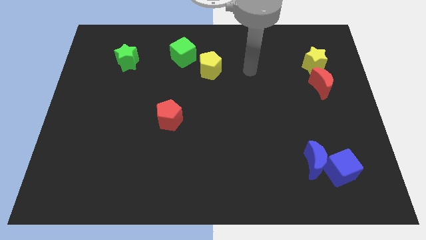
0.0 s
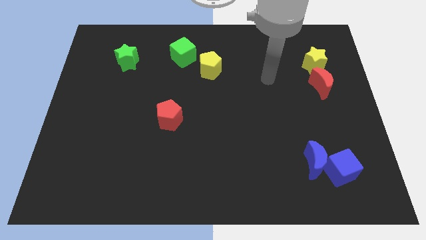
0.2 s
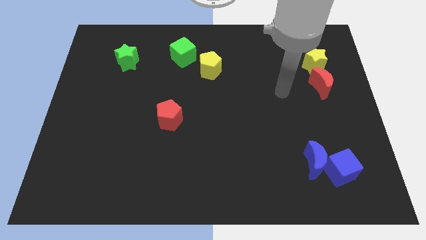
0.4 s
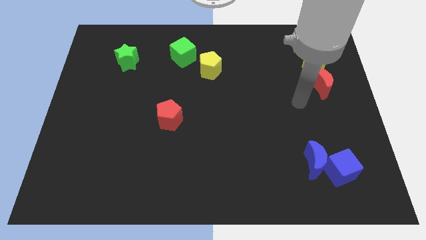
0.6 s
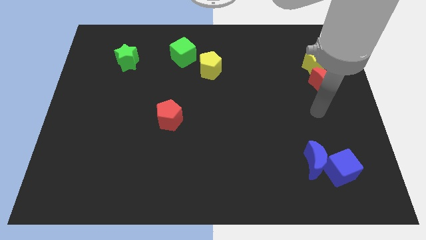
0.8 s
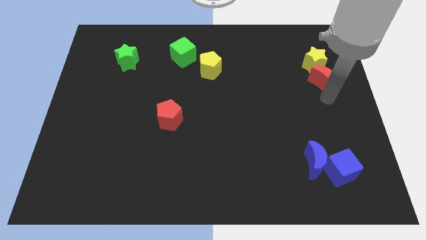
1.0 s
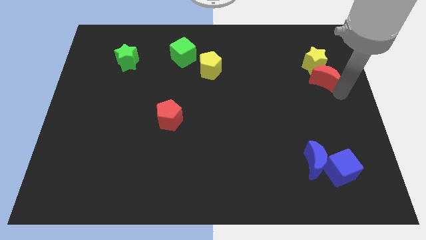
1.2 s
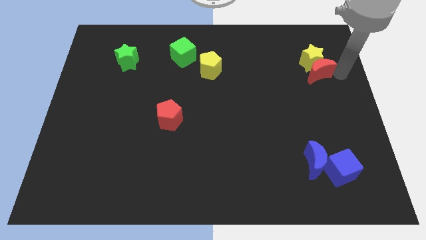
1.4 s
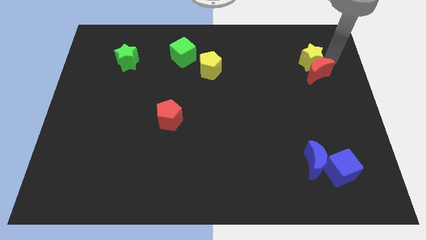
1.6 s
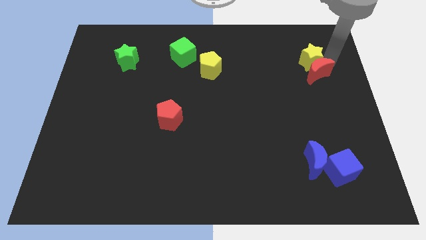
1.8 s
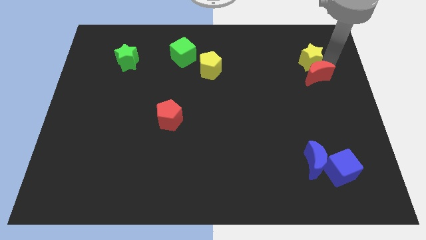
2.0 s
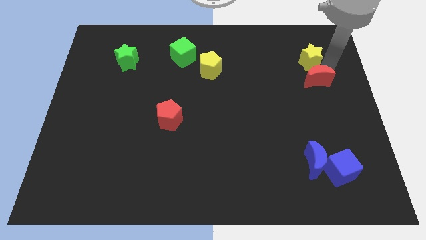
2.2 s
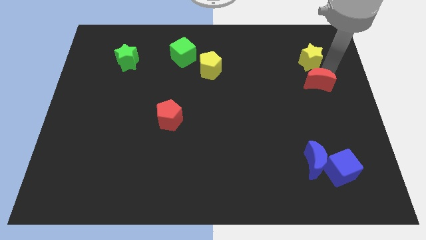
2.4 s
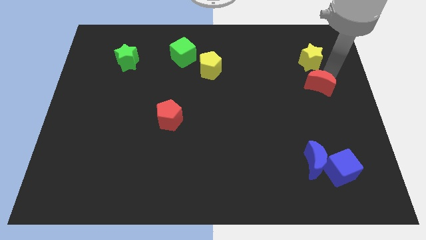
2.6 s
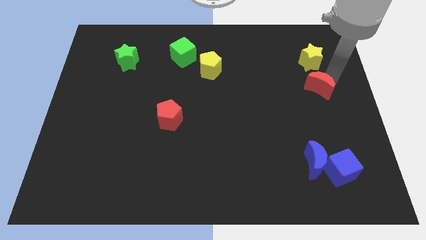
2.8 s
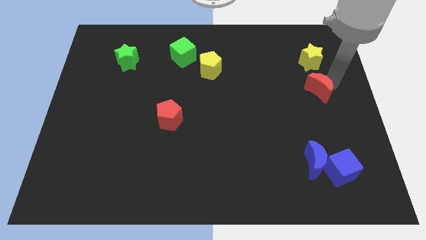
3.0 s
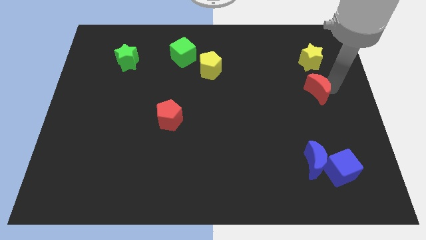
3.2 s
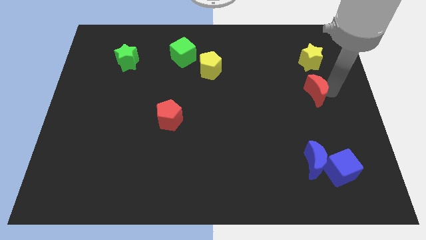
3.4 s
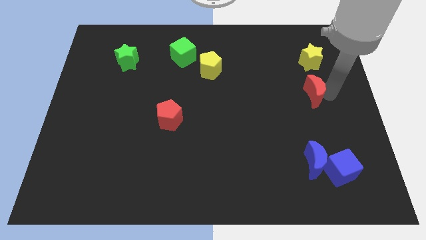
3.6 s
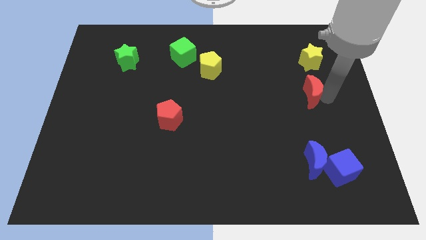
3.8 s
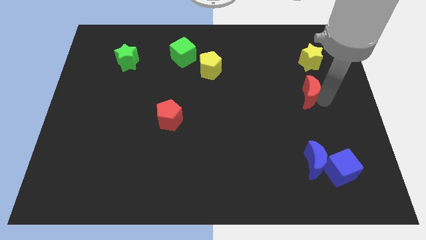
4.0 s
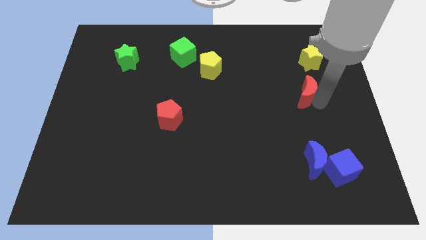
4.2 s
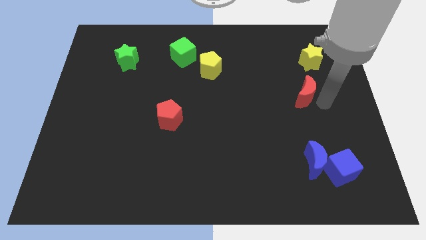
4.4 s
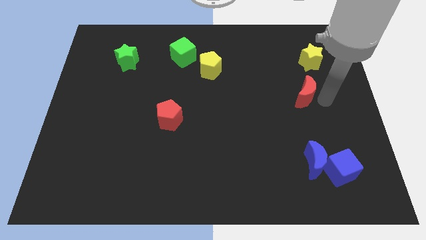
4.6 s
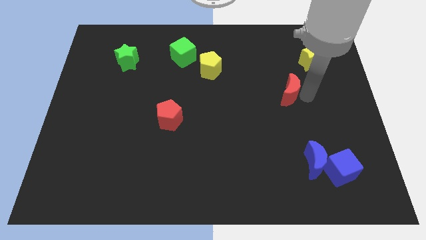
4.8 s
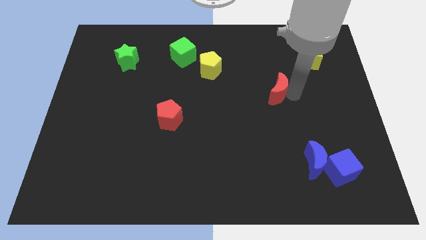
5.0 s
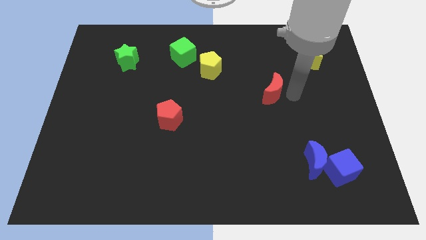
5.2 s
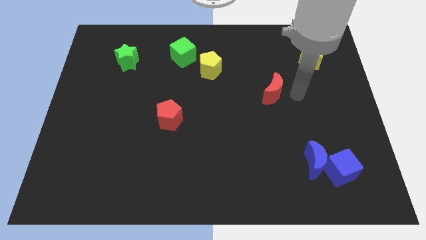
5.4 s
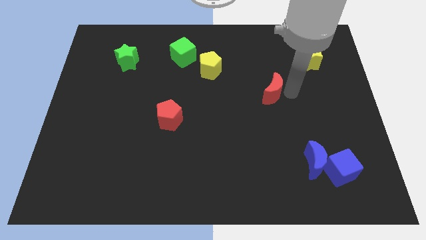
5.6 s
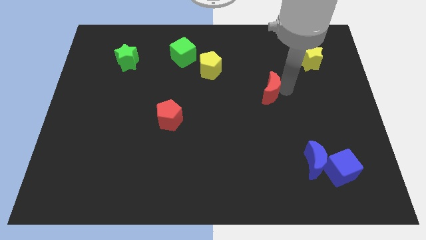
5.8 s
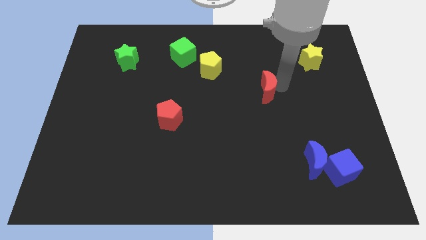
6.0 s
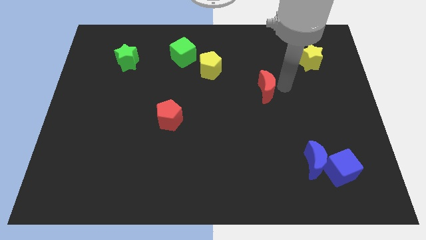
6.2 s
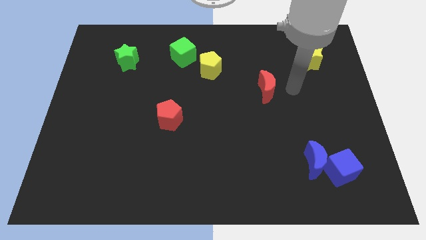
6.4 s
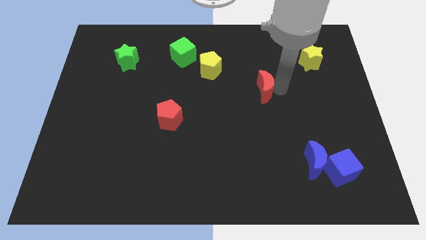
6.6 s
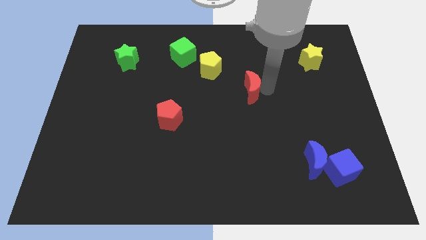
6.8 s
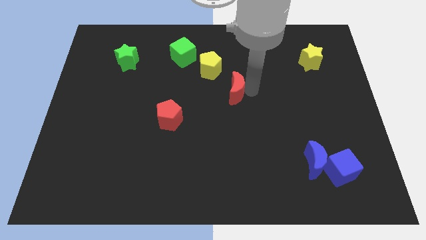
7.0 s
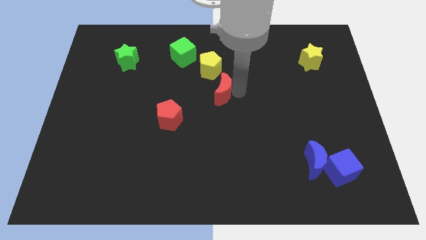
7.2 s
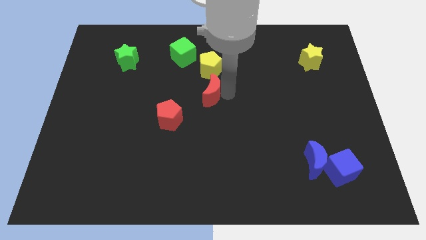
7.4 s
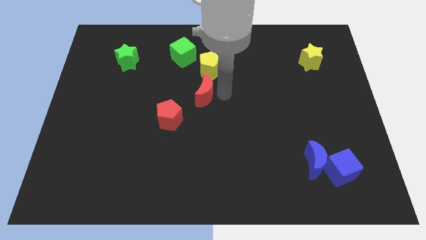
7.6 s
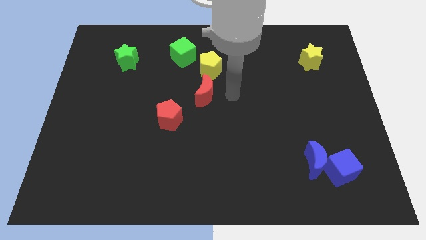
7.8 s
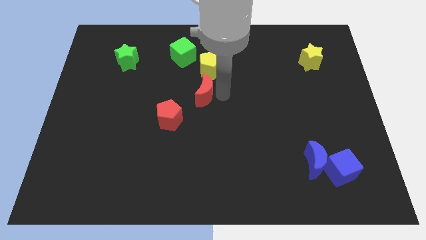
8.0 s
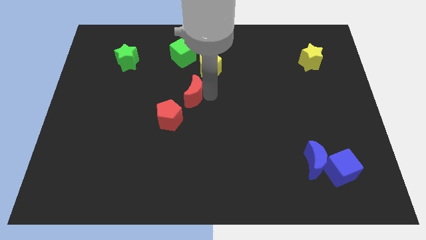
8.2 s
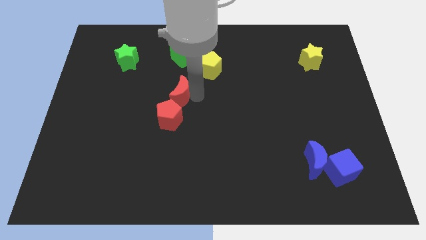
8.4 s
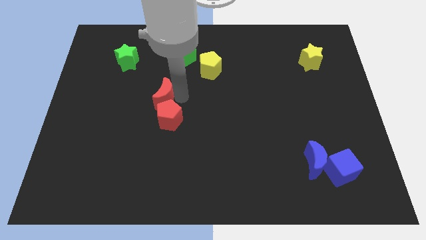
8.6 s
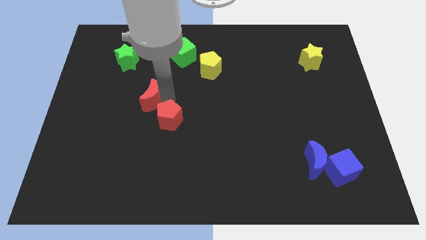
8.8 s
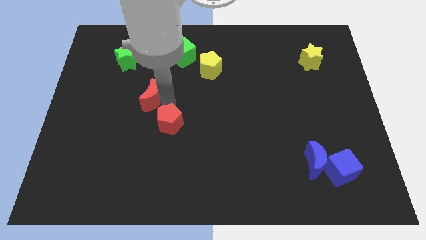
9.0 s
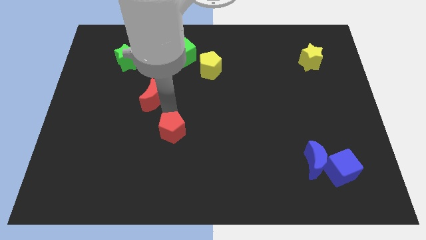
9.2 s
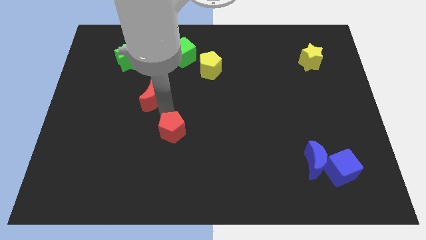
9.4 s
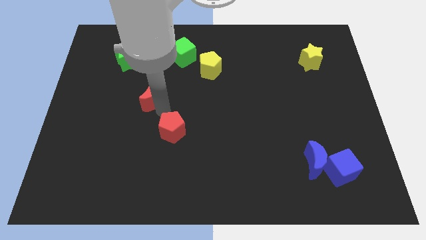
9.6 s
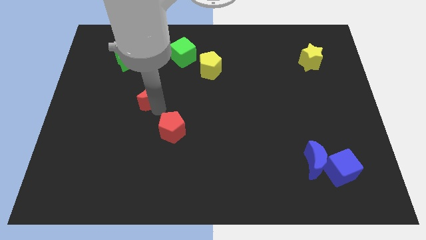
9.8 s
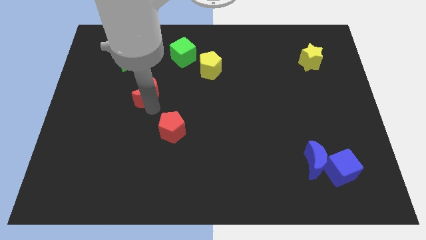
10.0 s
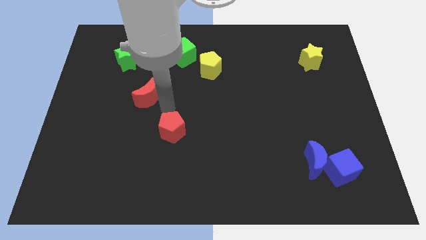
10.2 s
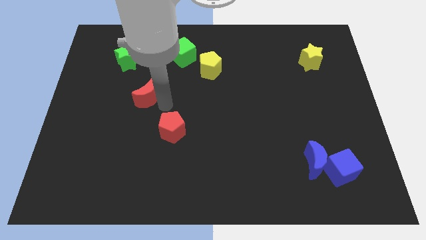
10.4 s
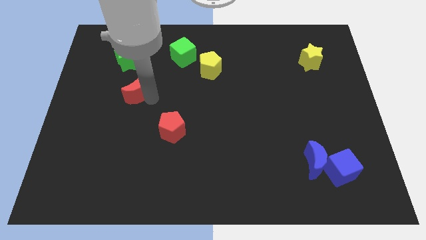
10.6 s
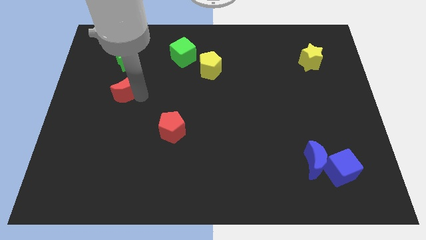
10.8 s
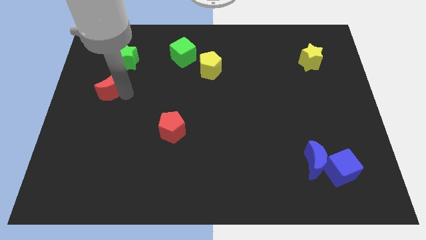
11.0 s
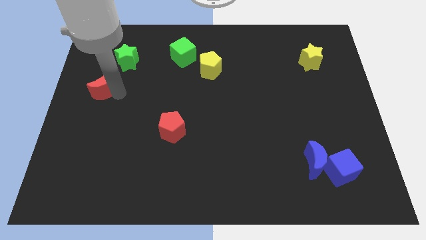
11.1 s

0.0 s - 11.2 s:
slide the red moon diagonally down and to the left of the green star

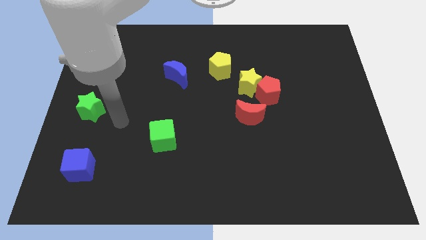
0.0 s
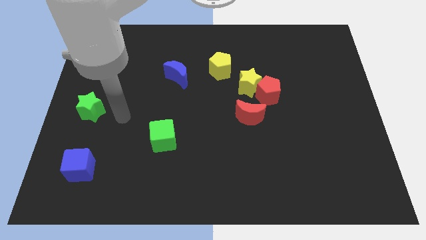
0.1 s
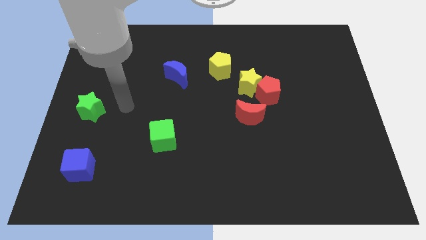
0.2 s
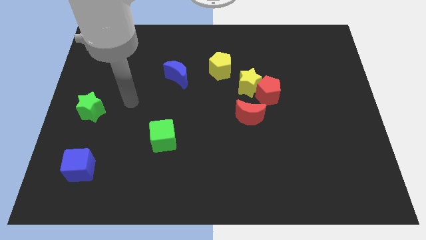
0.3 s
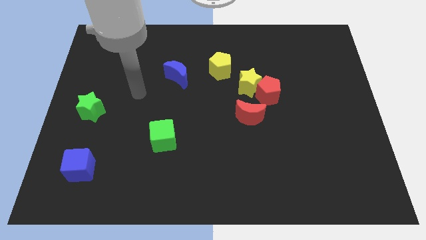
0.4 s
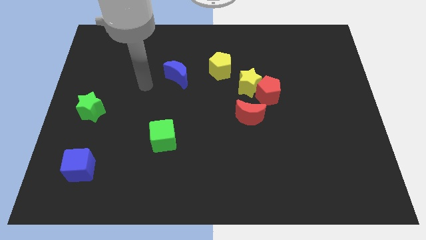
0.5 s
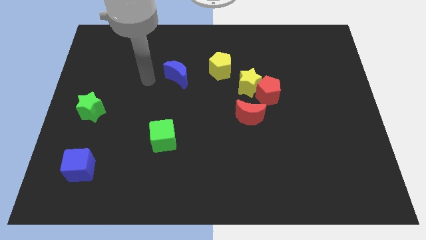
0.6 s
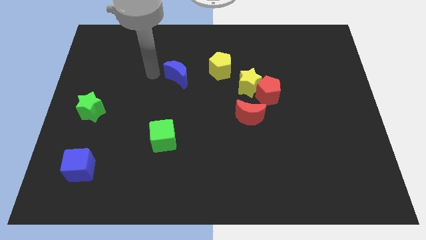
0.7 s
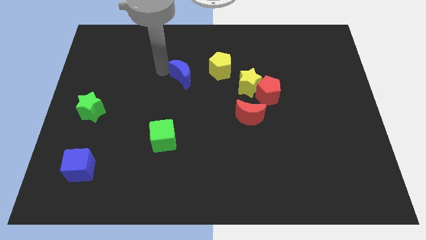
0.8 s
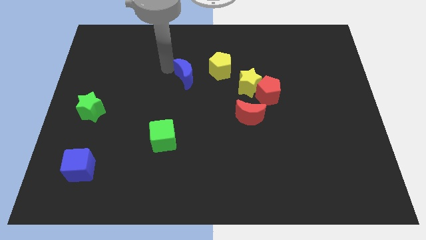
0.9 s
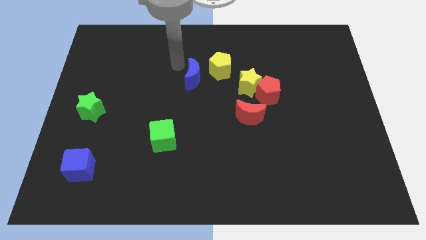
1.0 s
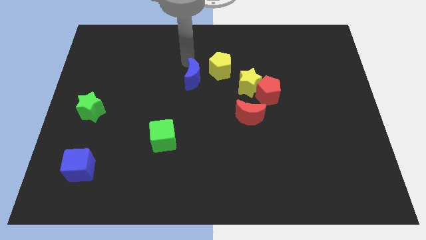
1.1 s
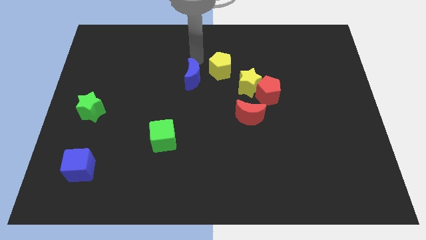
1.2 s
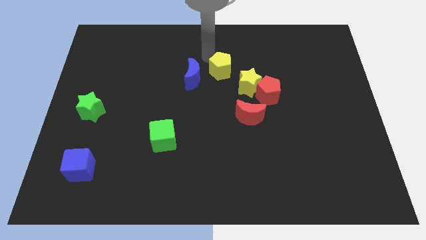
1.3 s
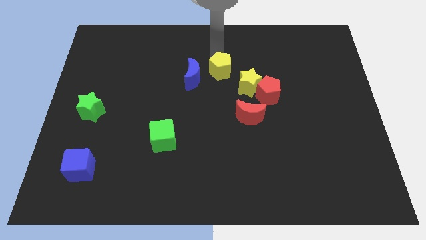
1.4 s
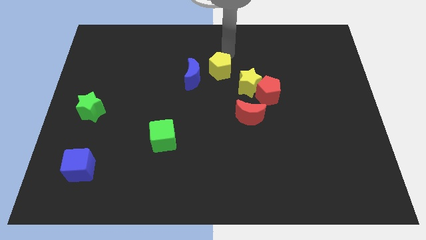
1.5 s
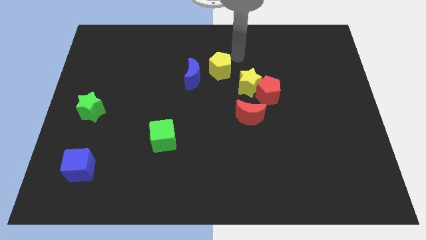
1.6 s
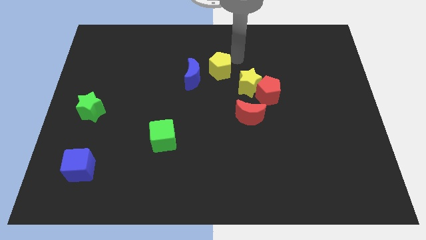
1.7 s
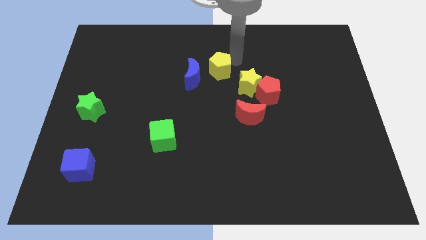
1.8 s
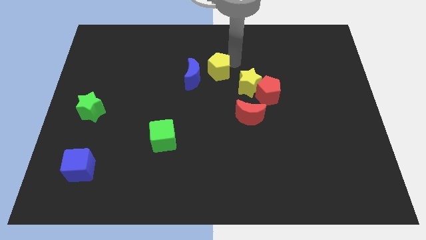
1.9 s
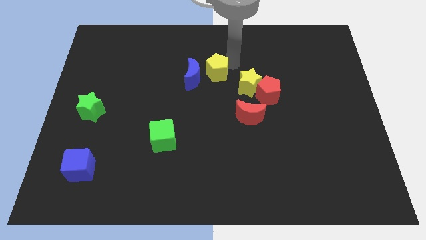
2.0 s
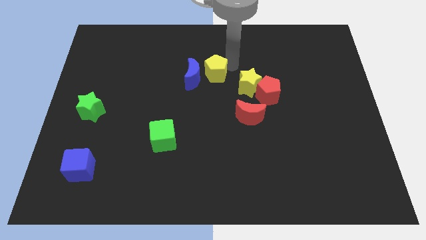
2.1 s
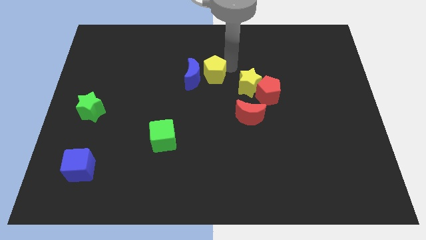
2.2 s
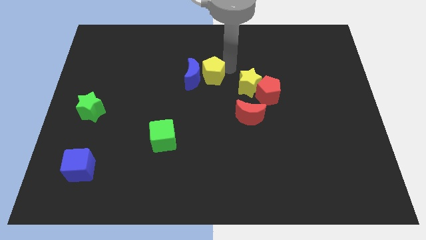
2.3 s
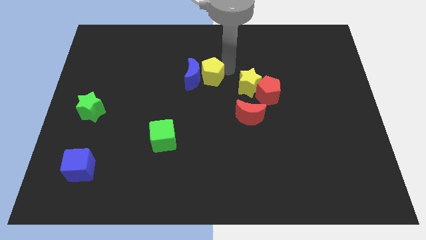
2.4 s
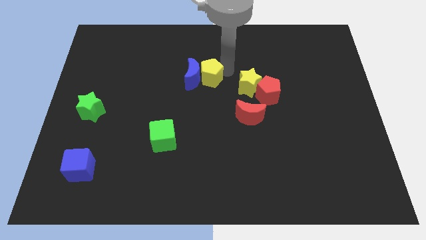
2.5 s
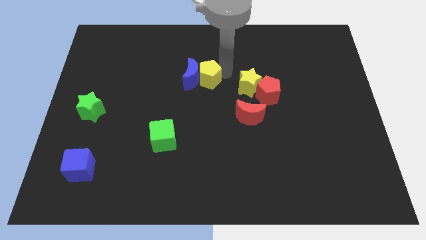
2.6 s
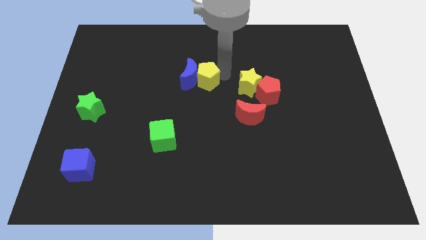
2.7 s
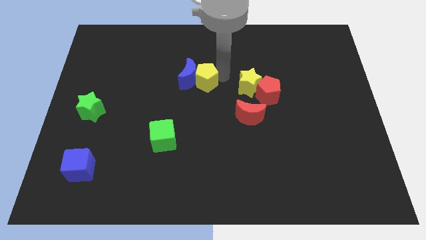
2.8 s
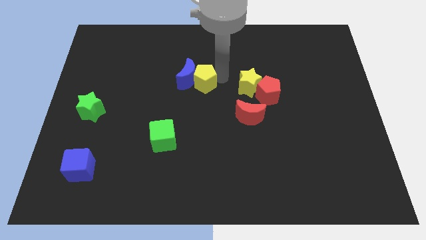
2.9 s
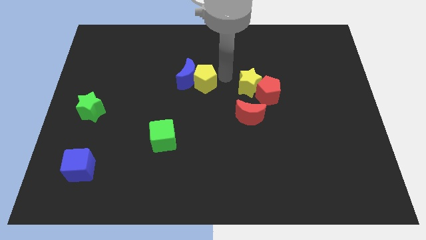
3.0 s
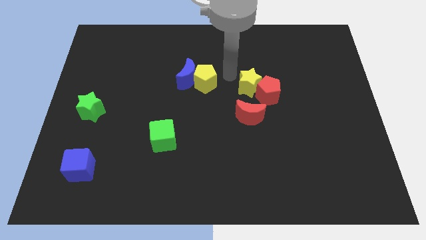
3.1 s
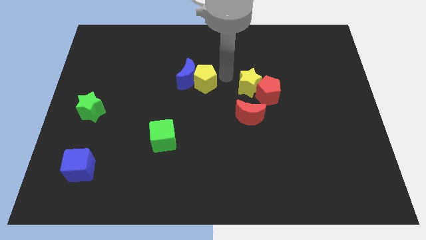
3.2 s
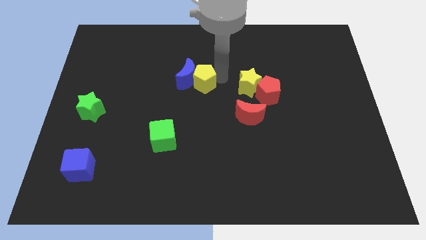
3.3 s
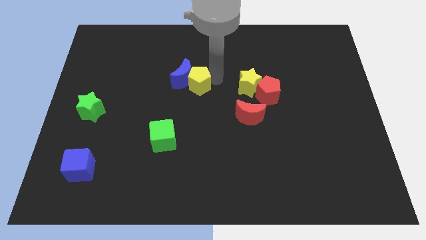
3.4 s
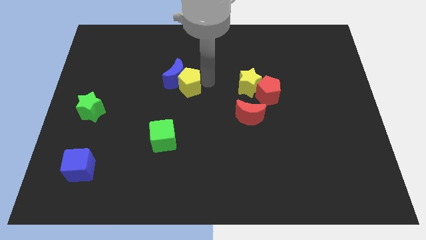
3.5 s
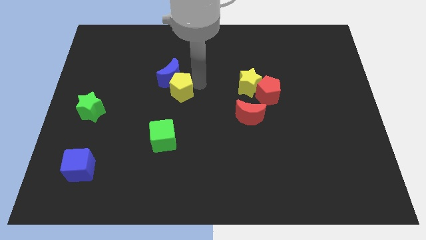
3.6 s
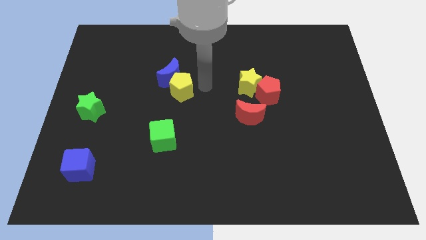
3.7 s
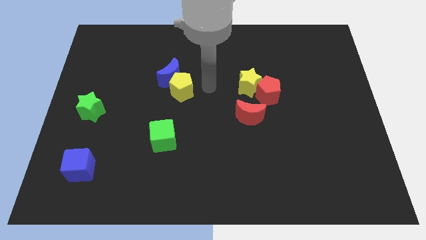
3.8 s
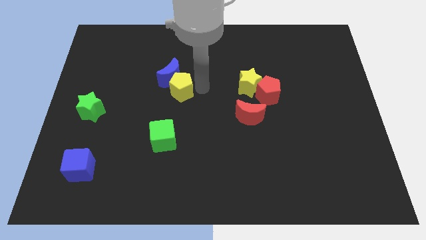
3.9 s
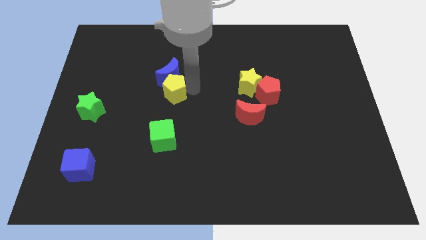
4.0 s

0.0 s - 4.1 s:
push the yellow pentagon diagonally down and to the left of the blue moon
